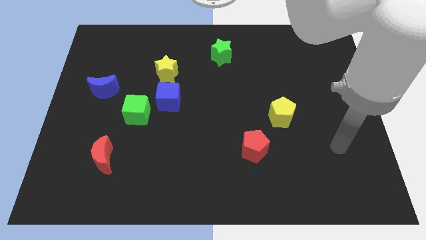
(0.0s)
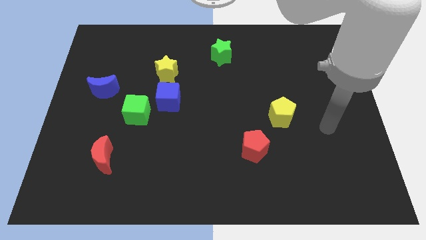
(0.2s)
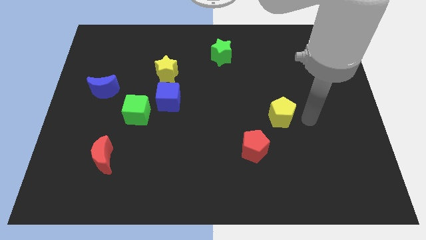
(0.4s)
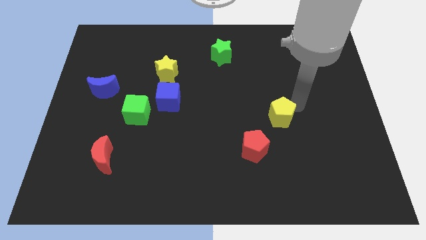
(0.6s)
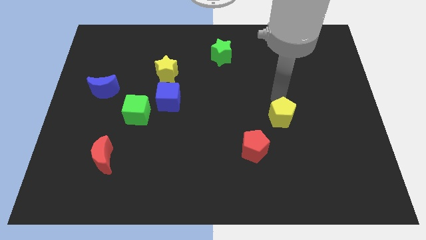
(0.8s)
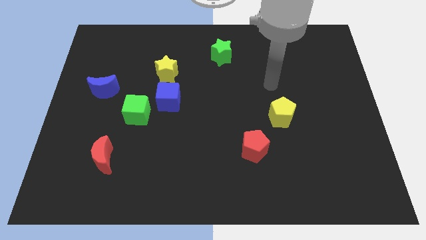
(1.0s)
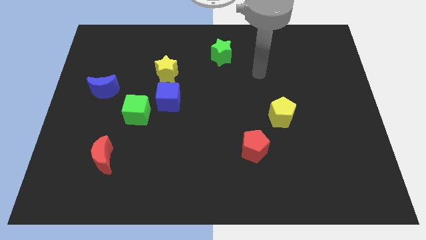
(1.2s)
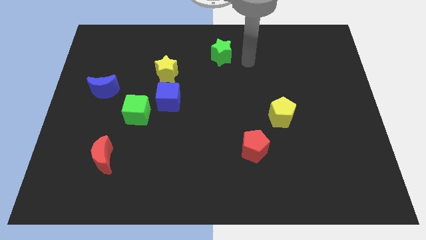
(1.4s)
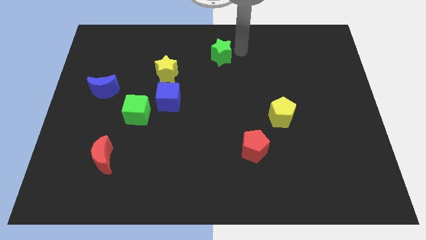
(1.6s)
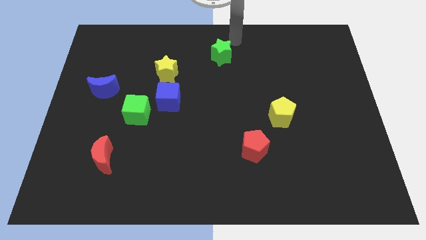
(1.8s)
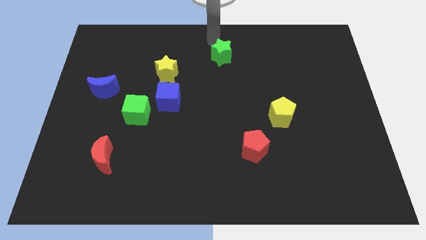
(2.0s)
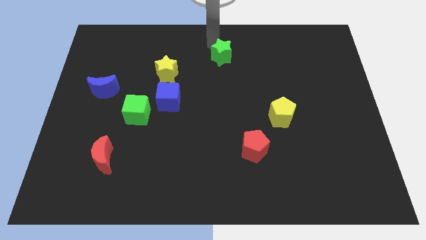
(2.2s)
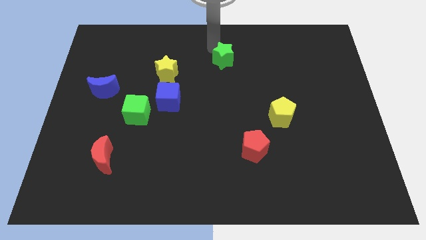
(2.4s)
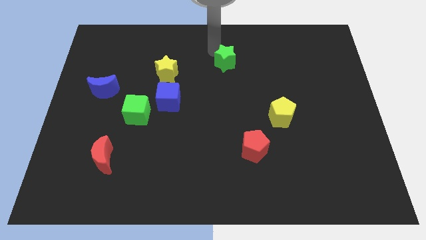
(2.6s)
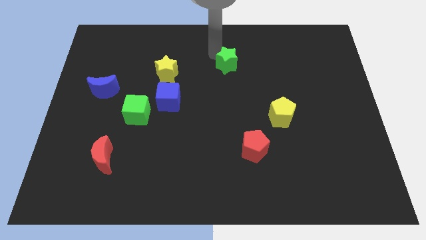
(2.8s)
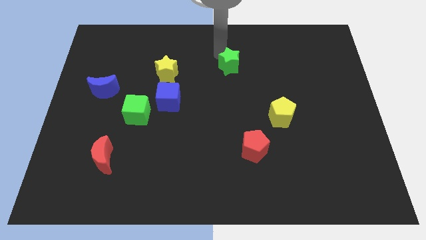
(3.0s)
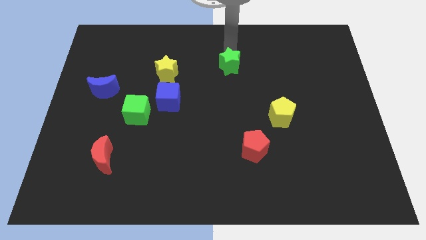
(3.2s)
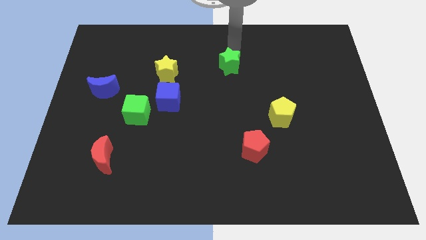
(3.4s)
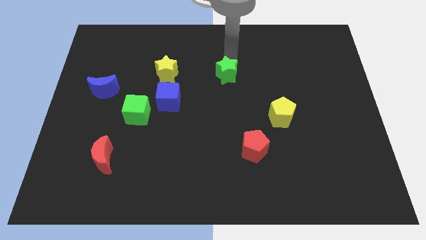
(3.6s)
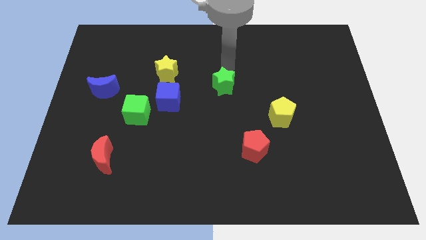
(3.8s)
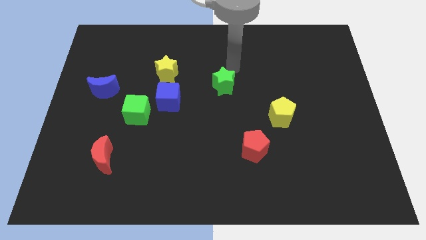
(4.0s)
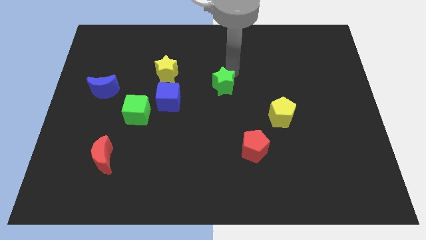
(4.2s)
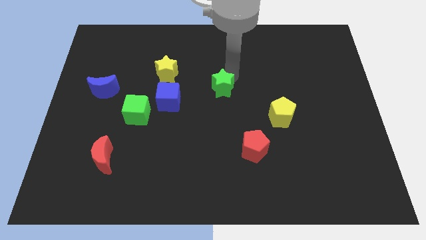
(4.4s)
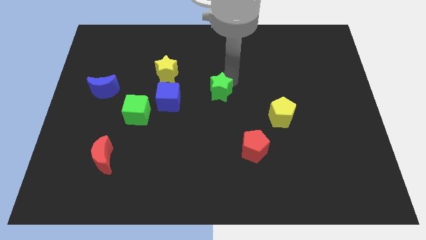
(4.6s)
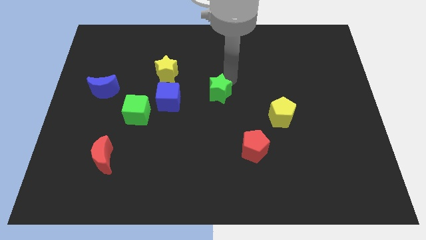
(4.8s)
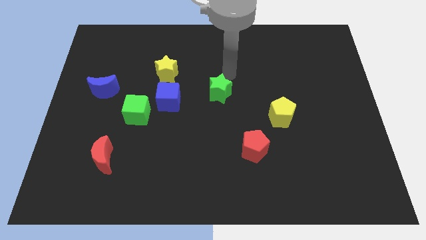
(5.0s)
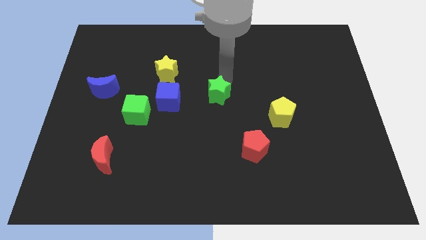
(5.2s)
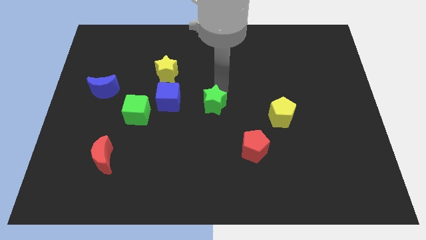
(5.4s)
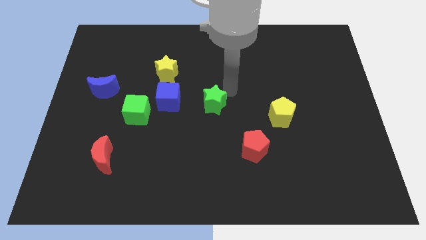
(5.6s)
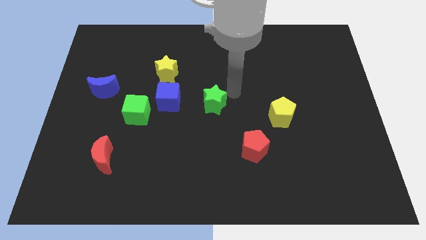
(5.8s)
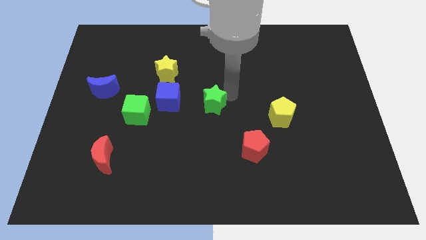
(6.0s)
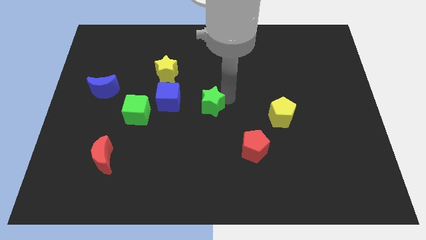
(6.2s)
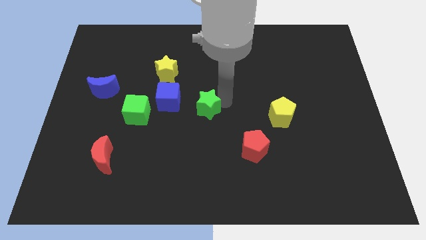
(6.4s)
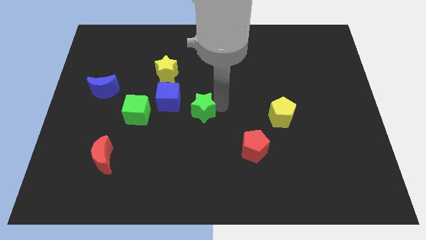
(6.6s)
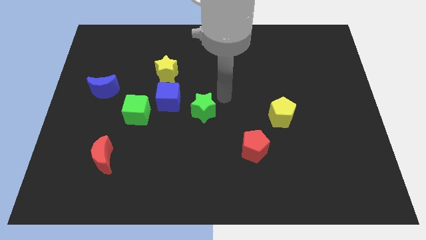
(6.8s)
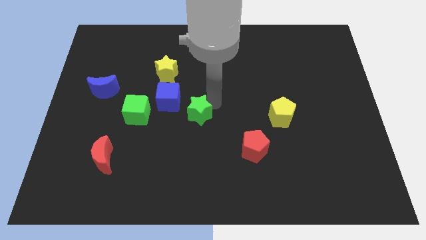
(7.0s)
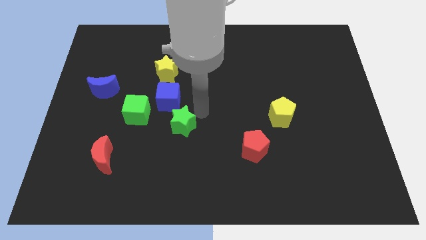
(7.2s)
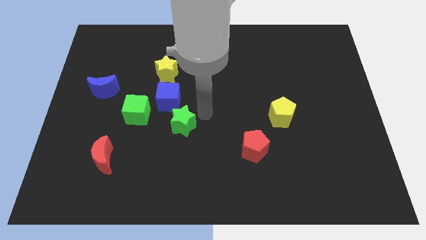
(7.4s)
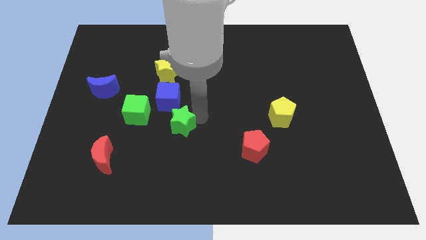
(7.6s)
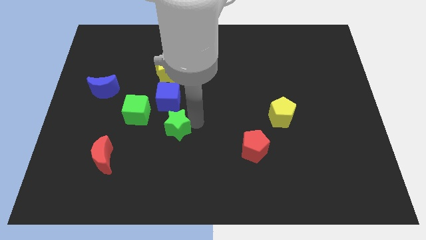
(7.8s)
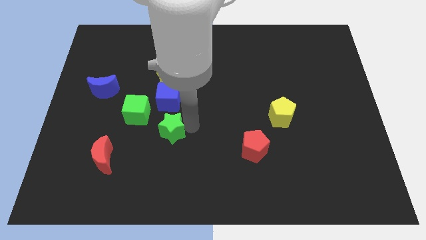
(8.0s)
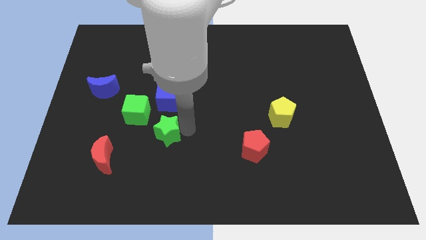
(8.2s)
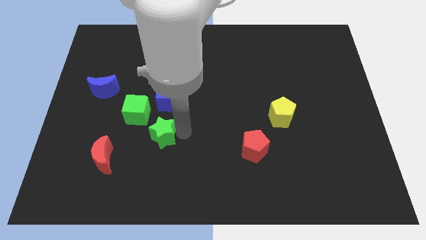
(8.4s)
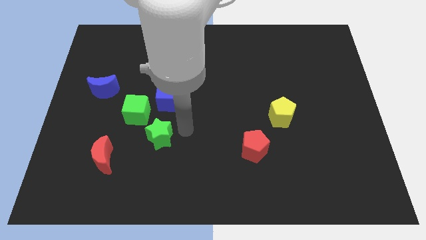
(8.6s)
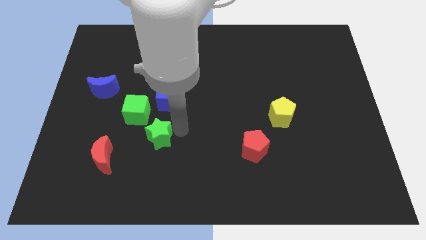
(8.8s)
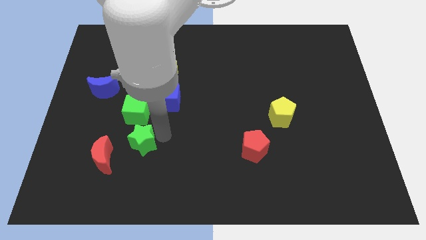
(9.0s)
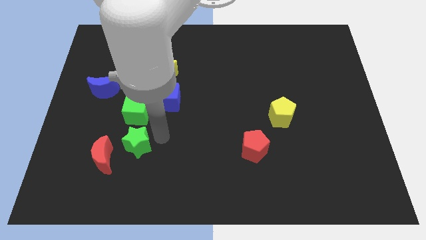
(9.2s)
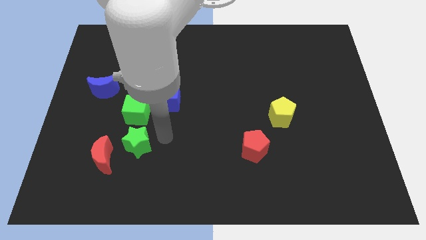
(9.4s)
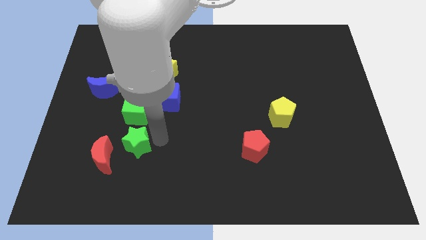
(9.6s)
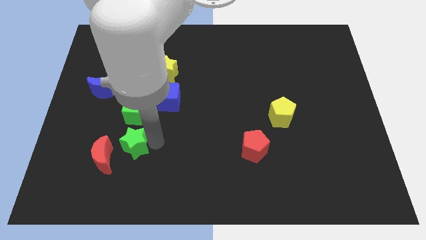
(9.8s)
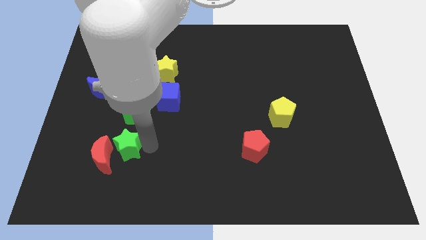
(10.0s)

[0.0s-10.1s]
move the green star towards the red moon

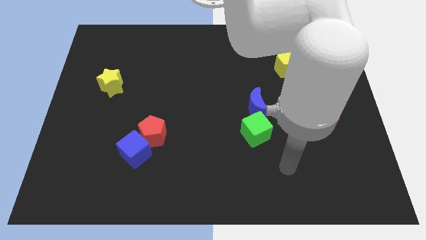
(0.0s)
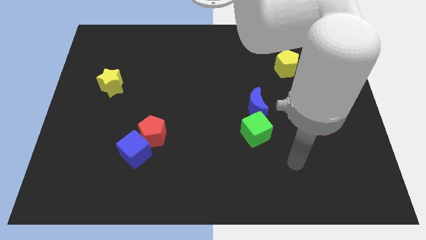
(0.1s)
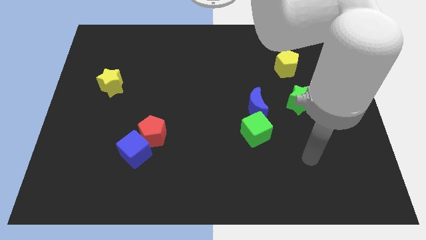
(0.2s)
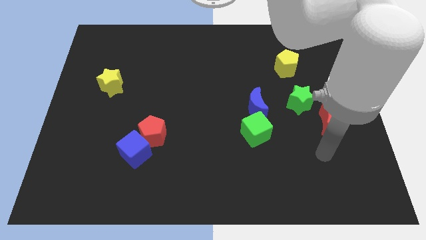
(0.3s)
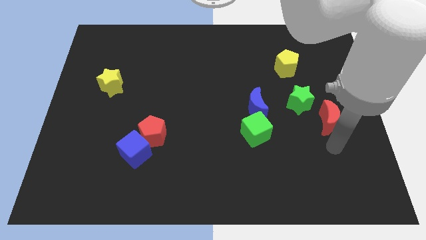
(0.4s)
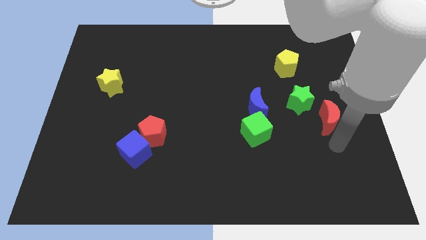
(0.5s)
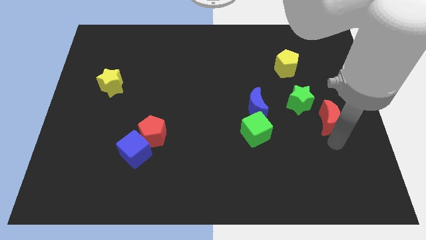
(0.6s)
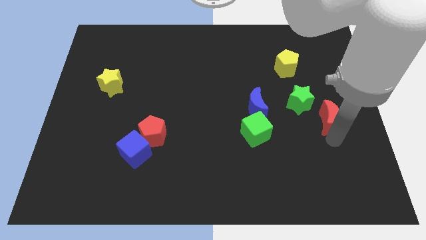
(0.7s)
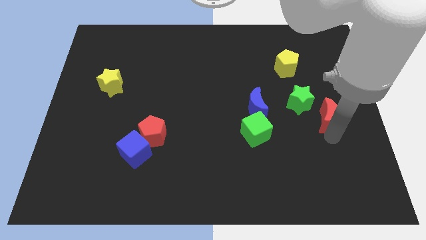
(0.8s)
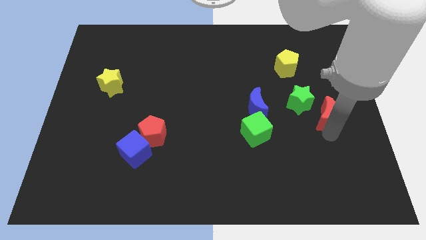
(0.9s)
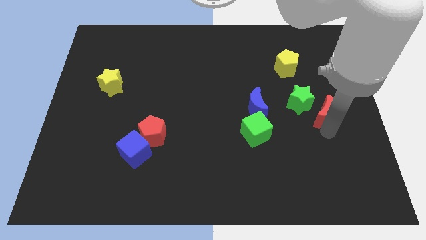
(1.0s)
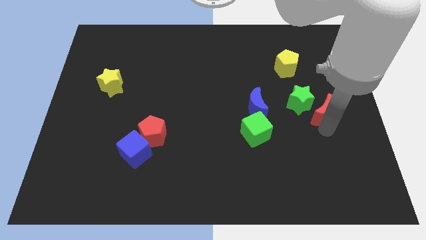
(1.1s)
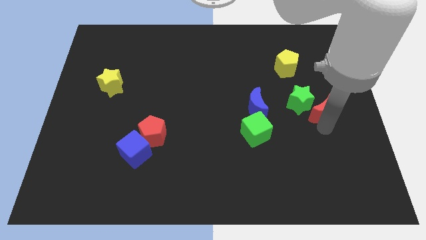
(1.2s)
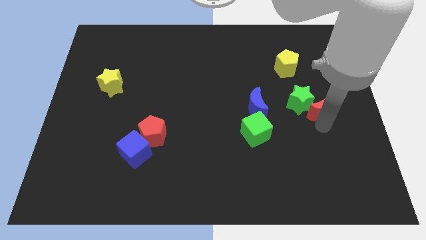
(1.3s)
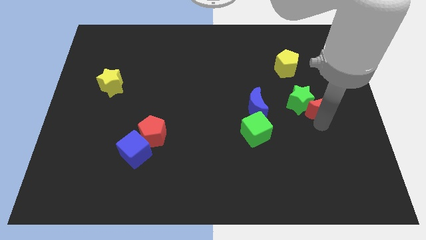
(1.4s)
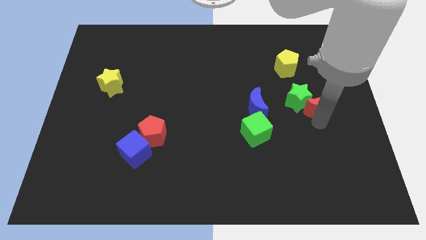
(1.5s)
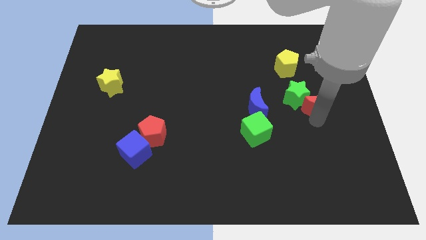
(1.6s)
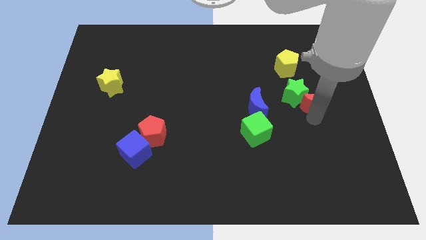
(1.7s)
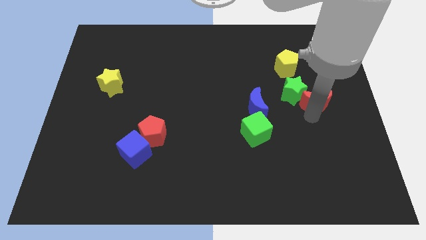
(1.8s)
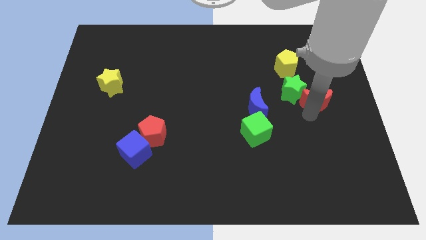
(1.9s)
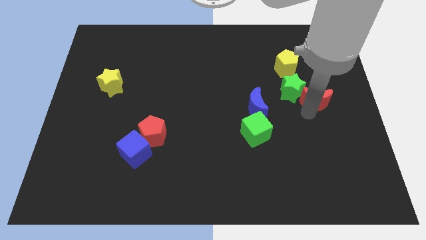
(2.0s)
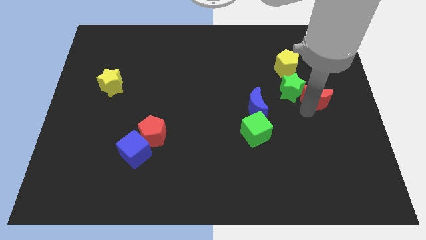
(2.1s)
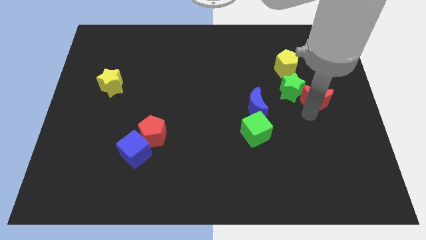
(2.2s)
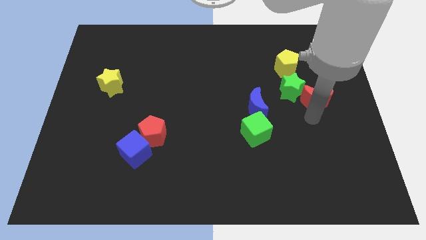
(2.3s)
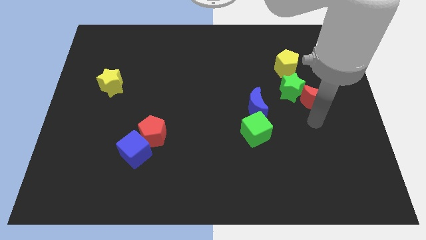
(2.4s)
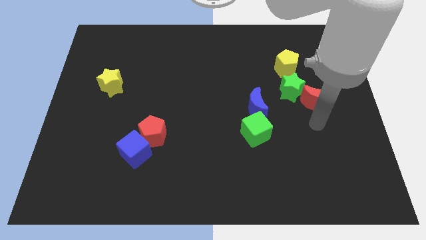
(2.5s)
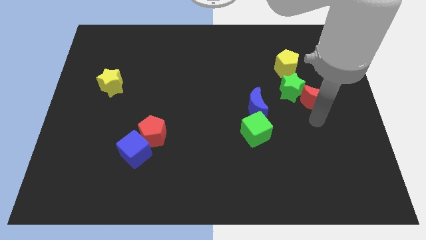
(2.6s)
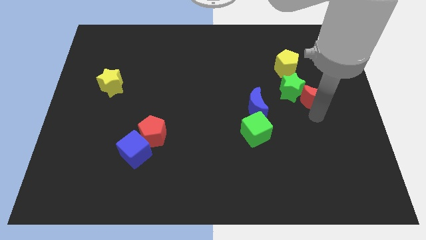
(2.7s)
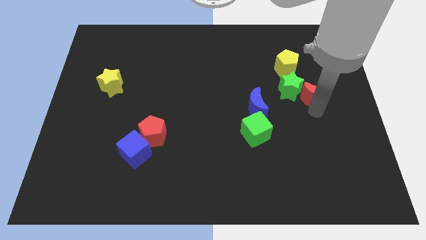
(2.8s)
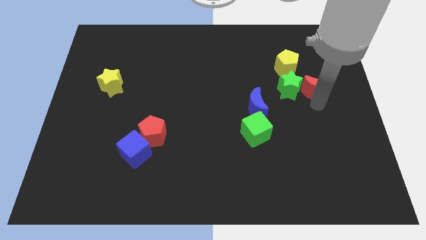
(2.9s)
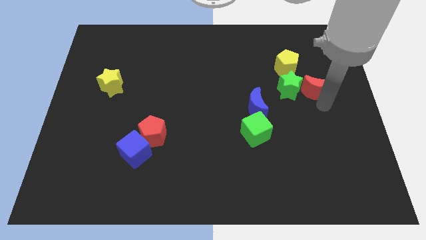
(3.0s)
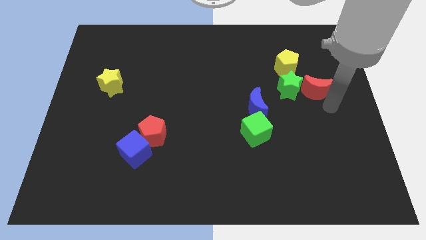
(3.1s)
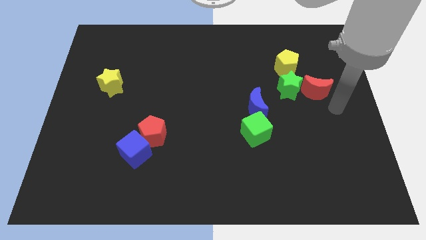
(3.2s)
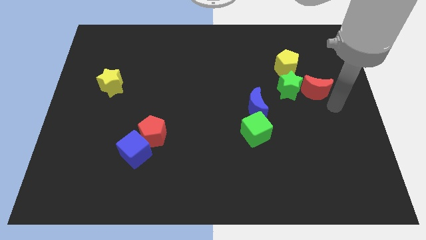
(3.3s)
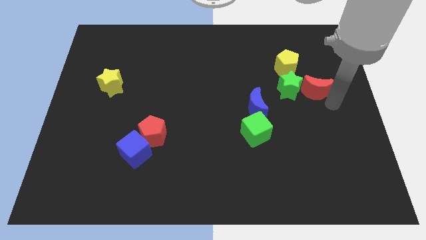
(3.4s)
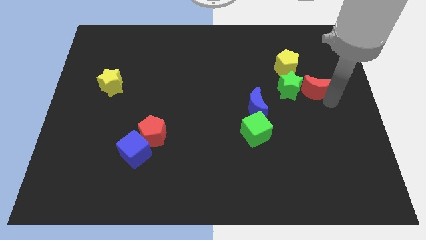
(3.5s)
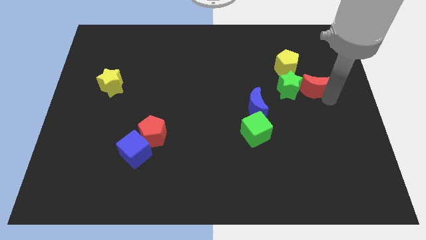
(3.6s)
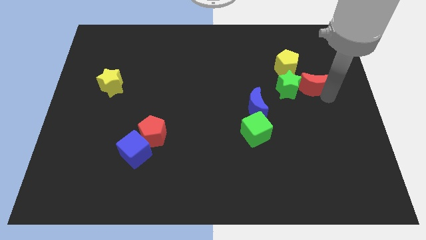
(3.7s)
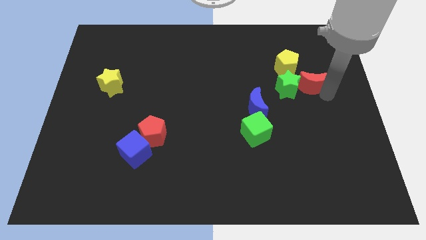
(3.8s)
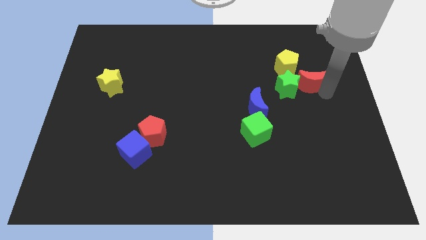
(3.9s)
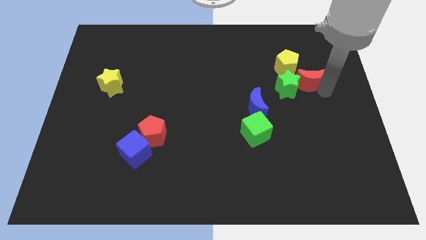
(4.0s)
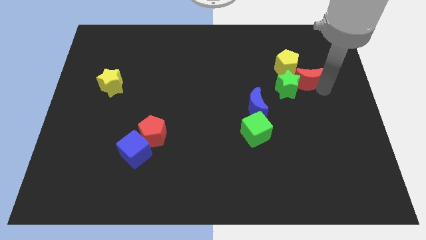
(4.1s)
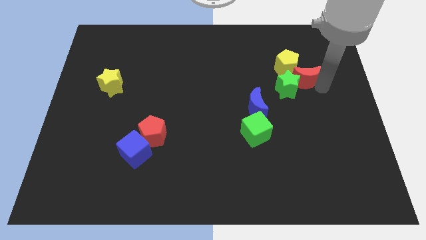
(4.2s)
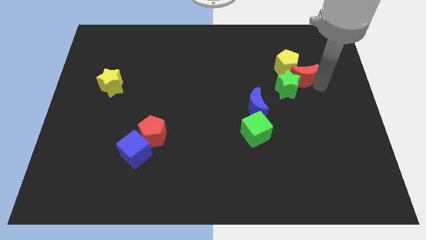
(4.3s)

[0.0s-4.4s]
put the red moon towards the yellow pentagon
